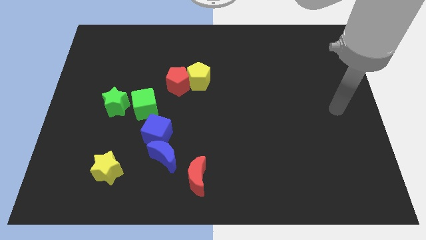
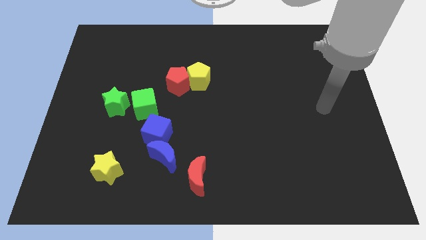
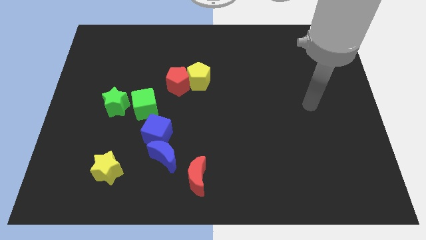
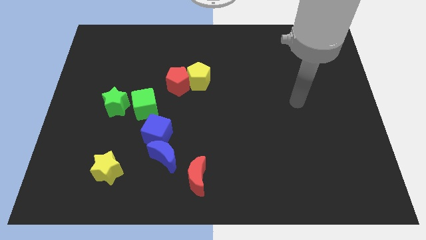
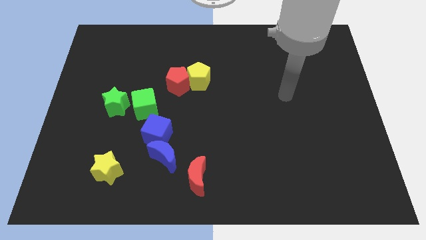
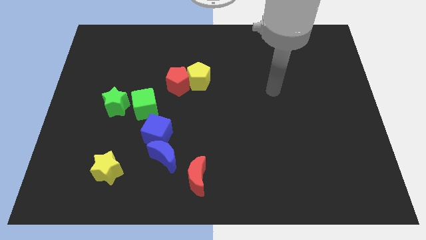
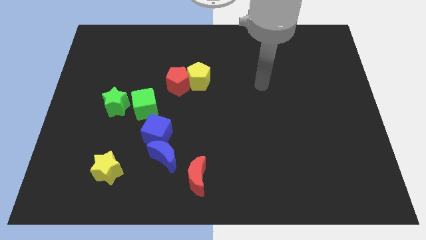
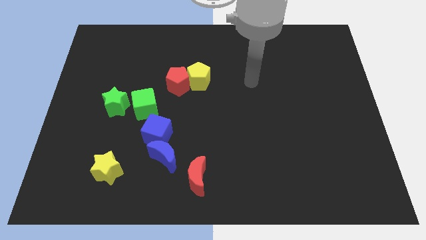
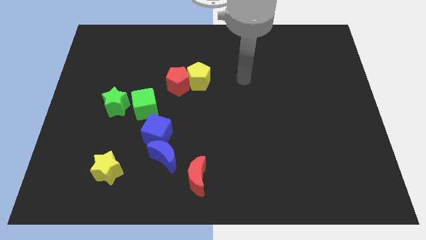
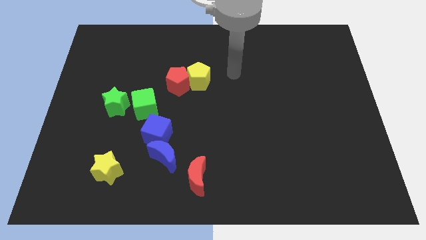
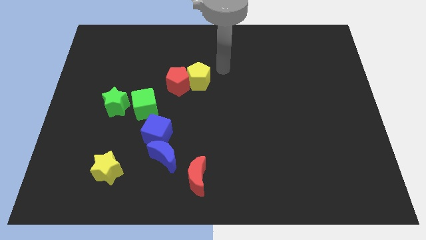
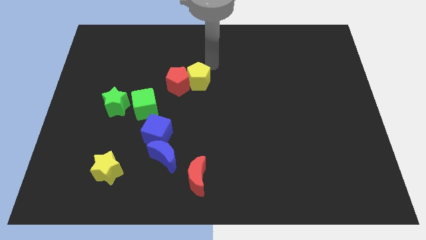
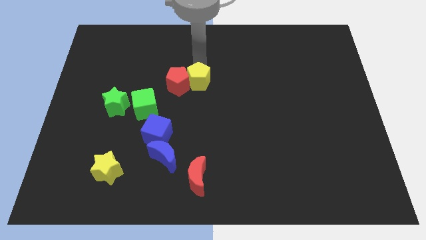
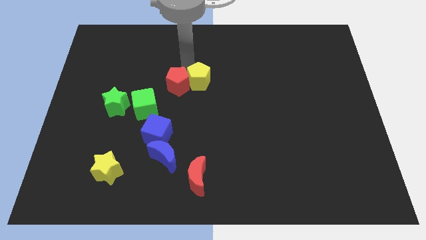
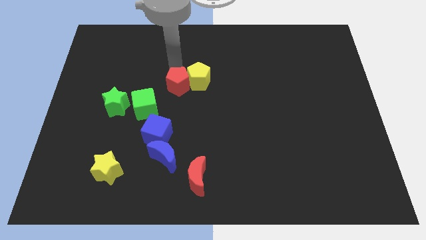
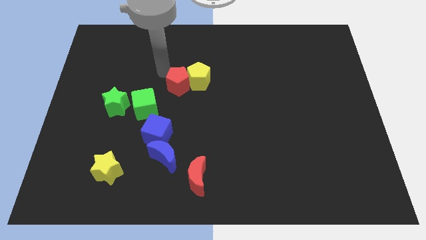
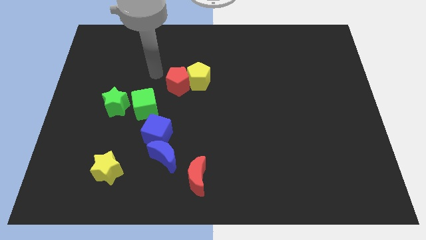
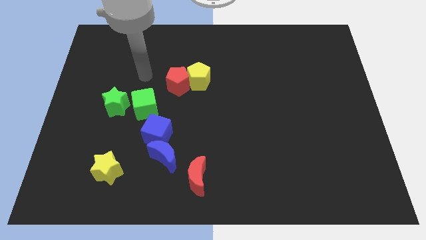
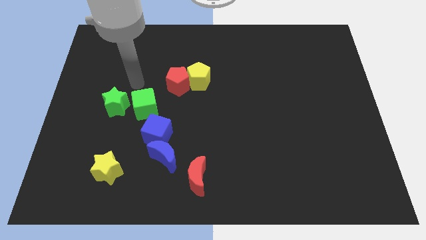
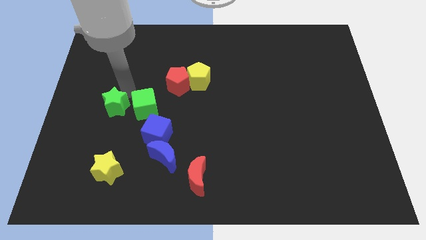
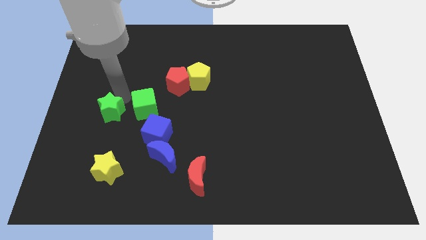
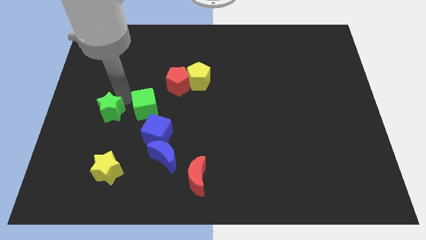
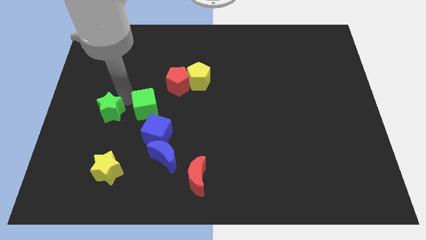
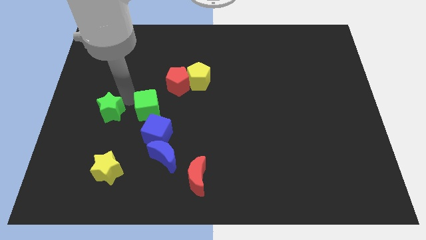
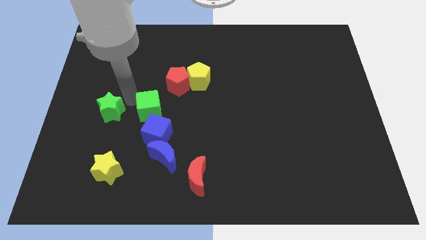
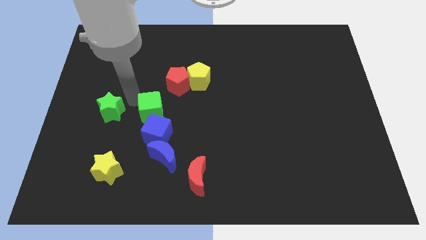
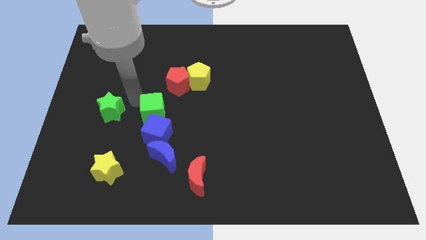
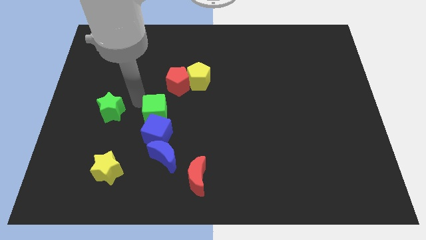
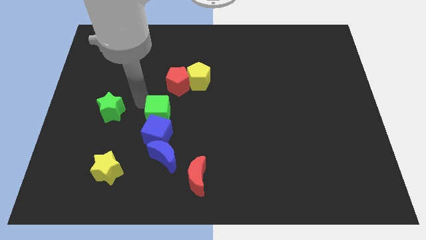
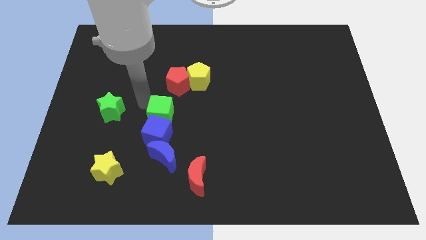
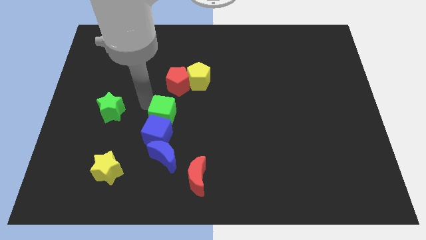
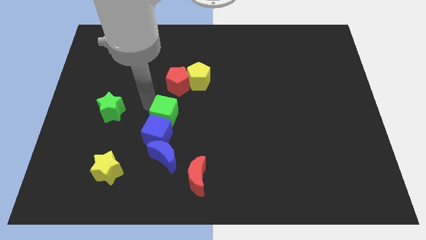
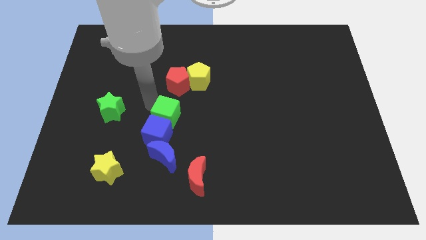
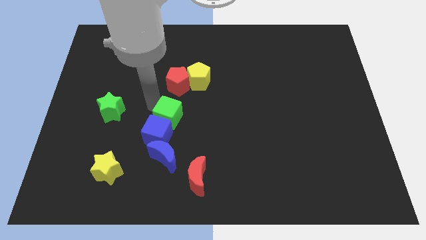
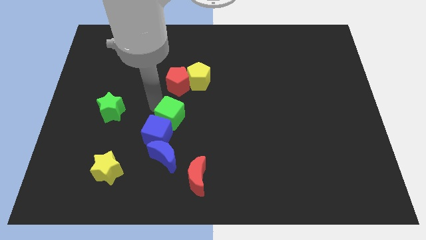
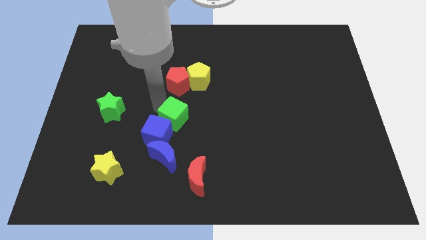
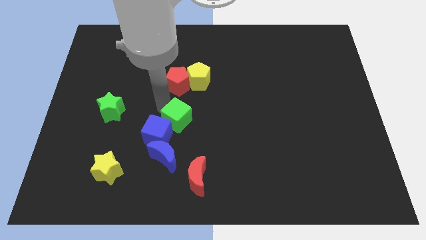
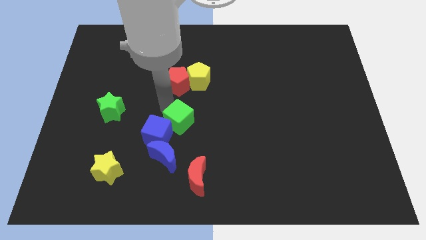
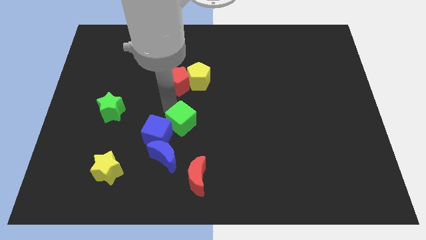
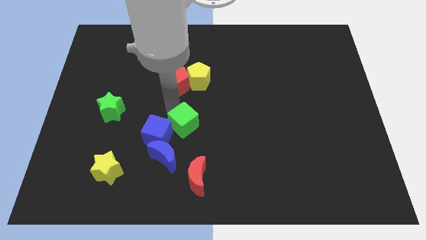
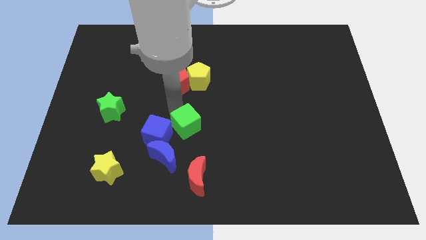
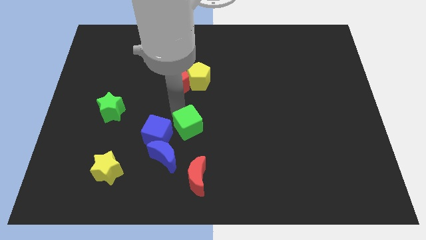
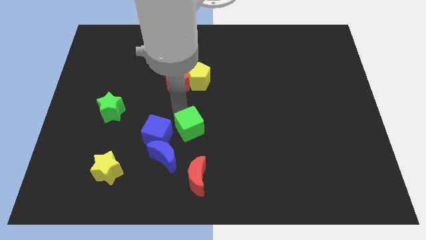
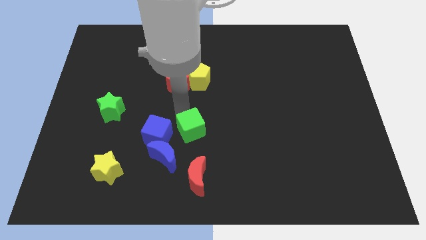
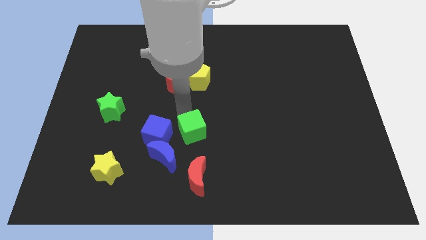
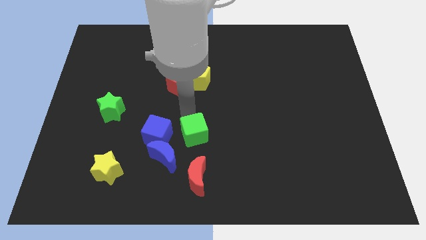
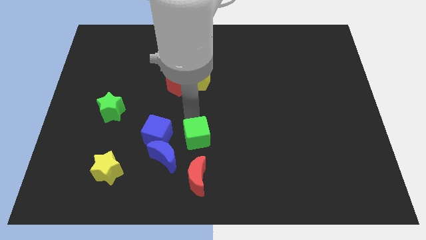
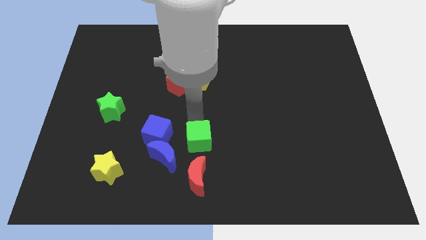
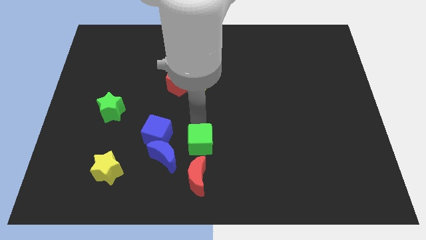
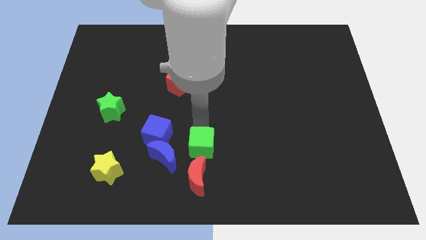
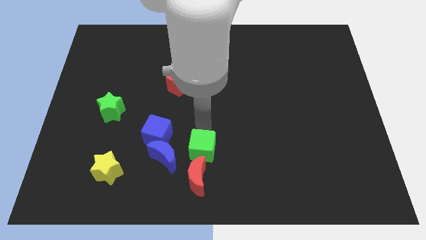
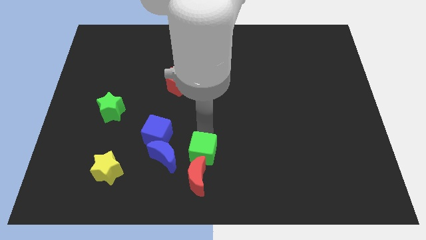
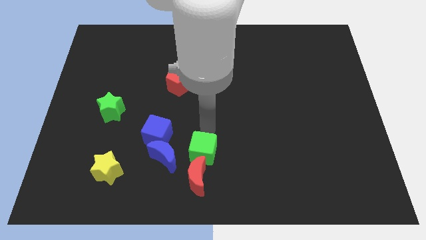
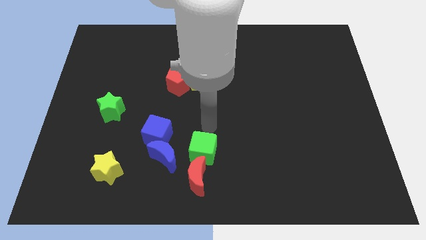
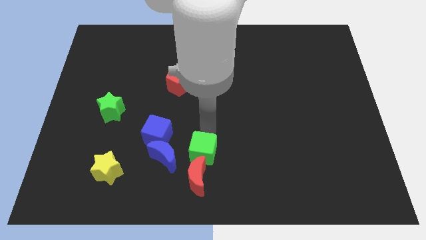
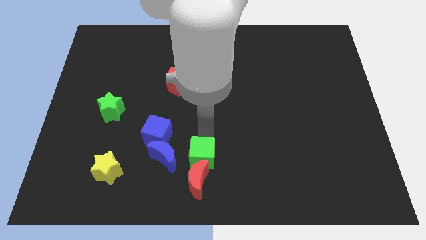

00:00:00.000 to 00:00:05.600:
push the green cube close to the red moon

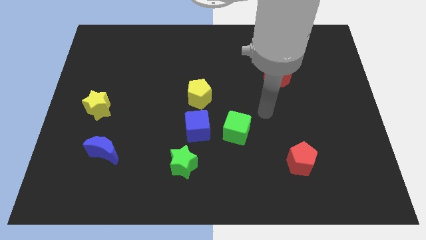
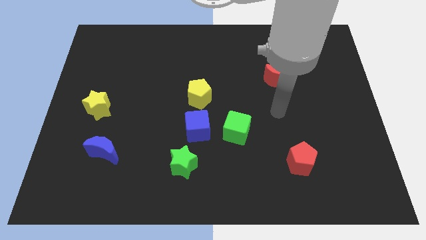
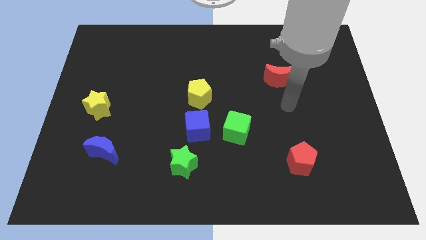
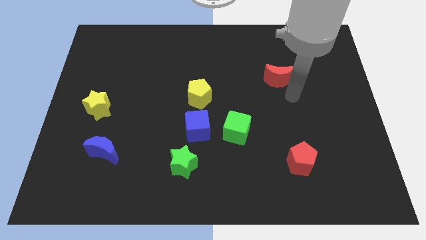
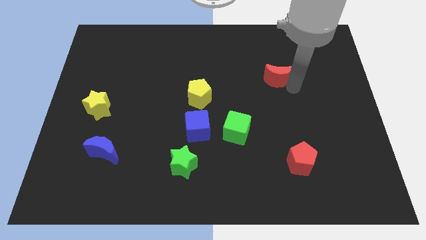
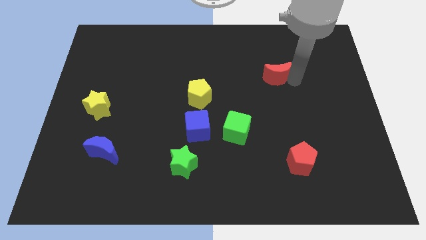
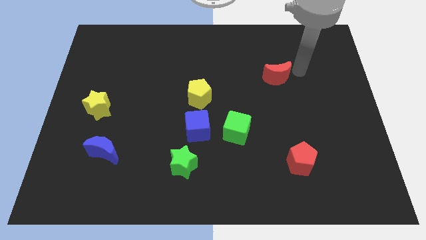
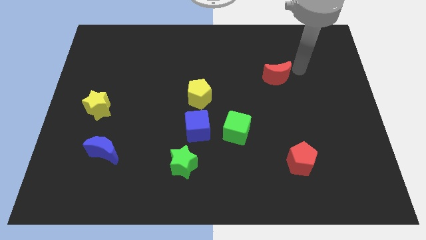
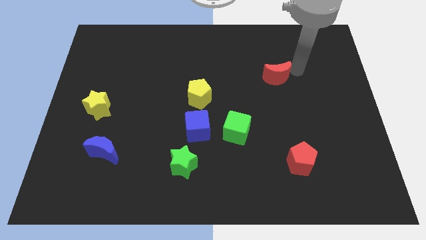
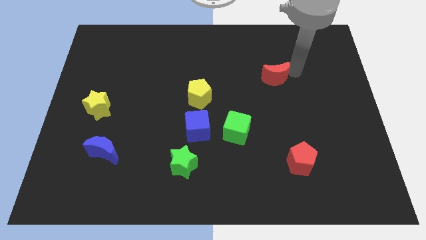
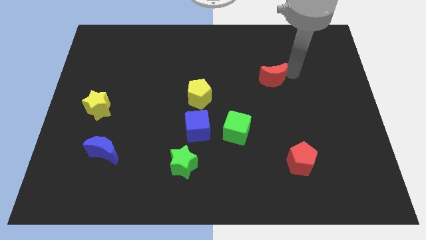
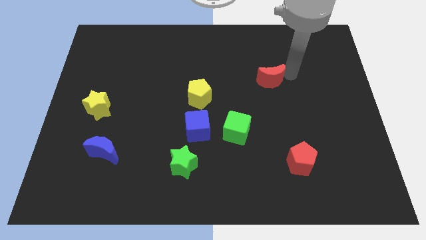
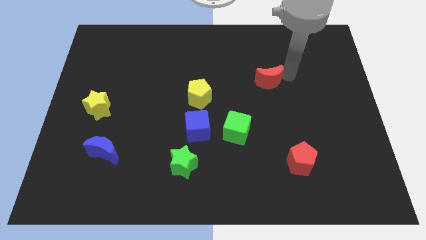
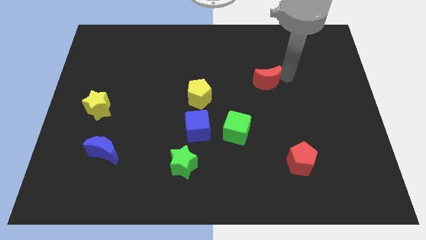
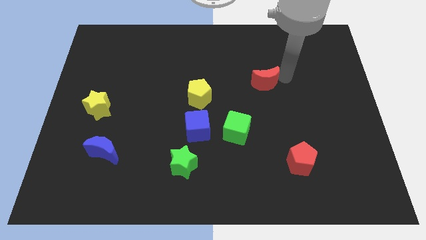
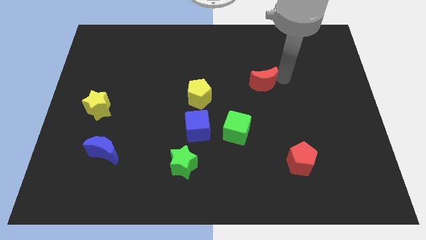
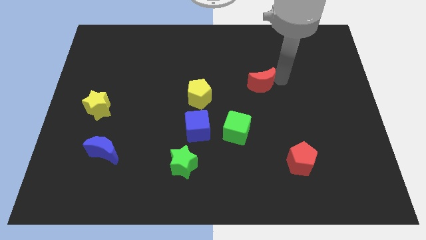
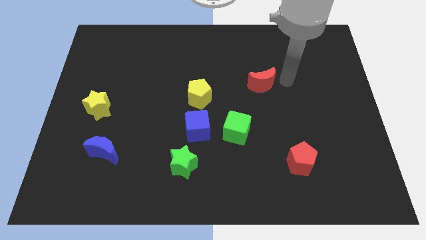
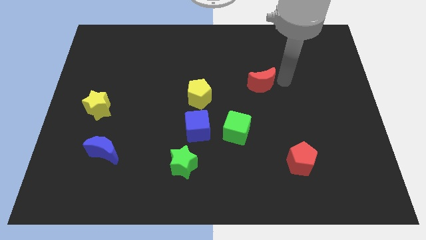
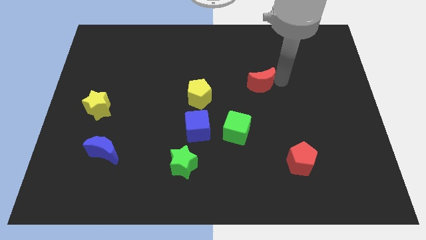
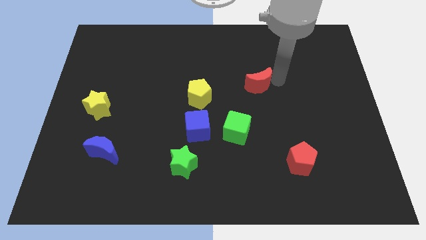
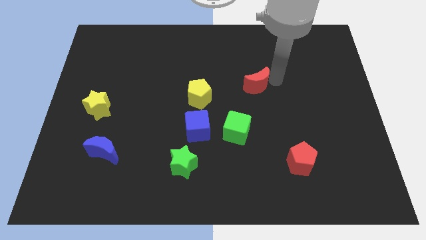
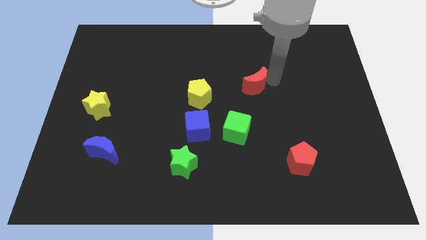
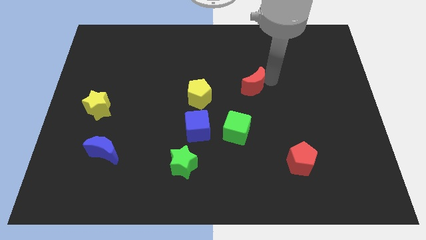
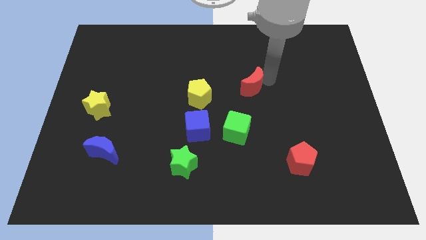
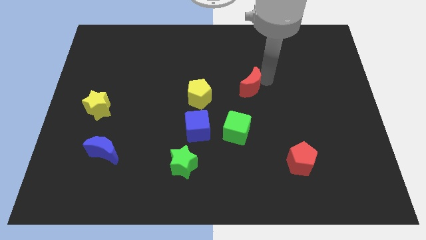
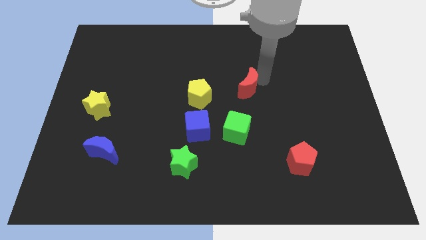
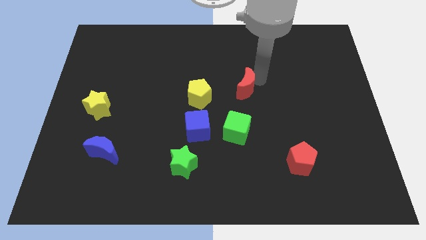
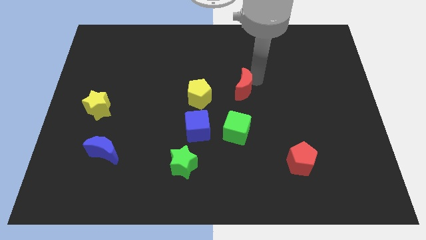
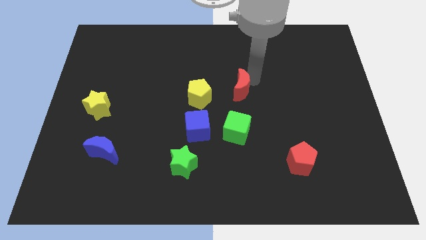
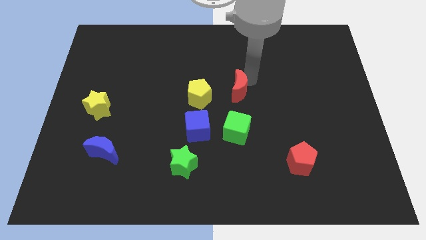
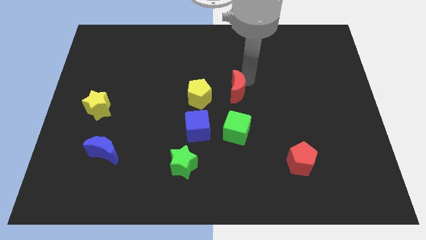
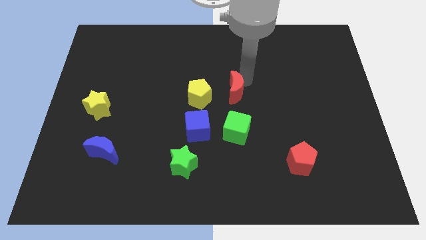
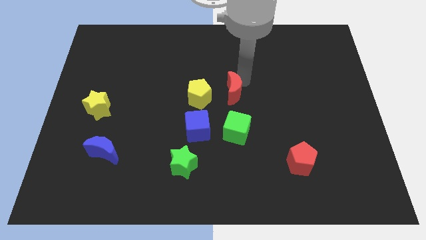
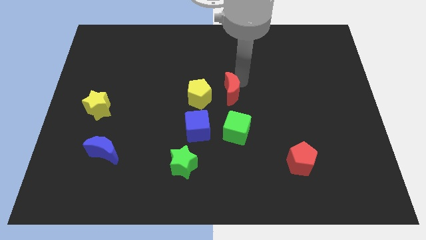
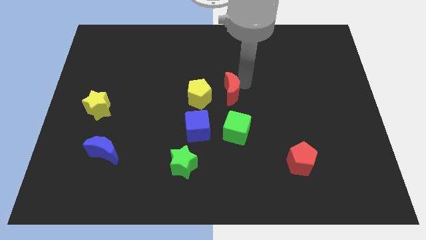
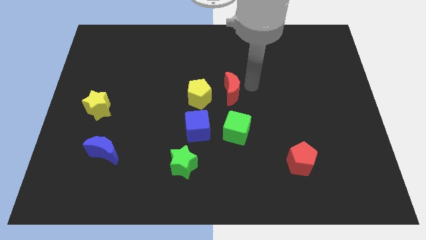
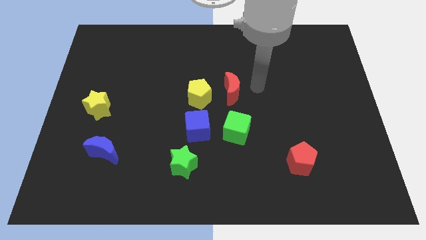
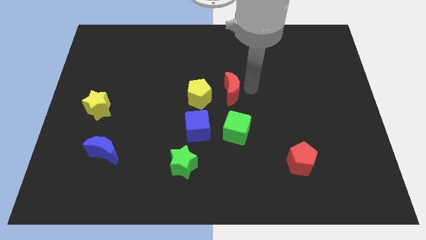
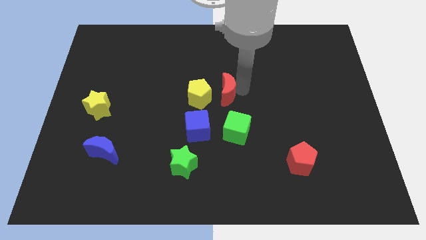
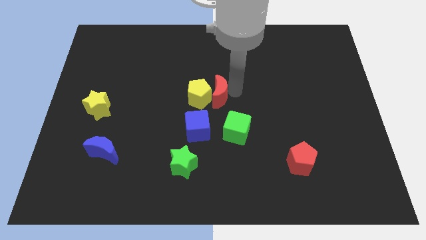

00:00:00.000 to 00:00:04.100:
slide the red moon close to the yellow pentagon
